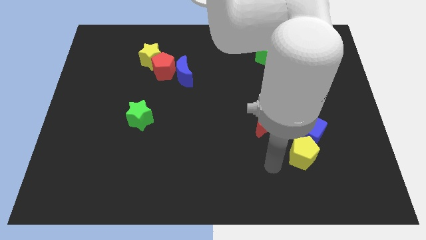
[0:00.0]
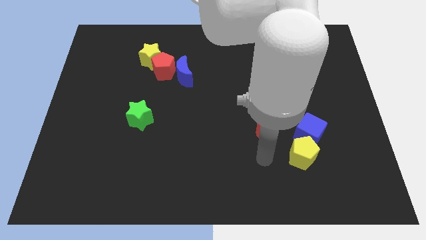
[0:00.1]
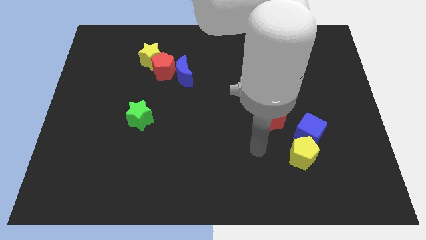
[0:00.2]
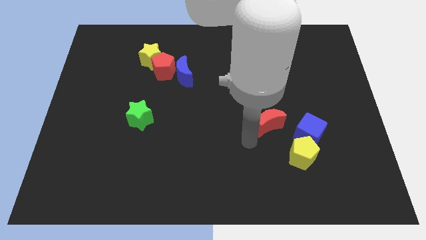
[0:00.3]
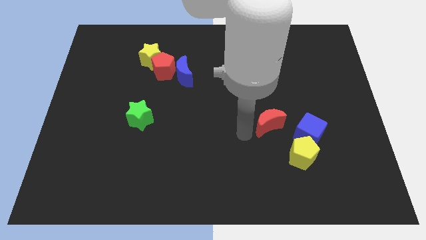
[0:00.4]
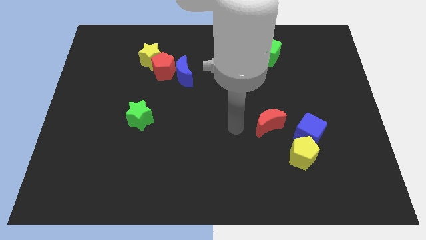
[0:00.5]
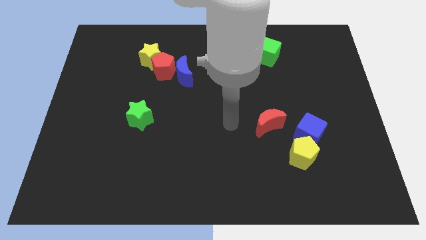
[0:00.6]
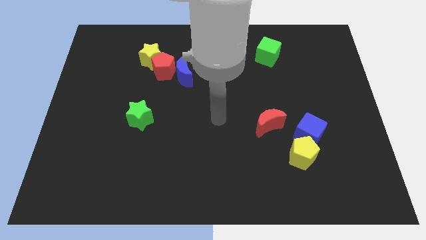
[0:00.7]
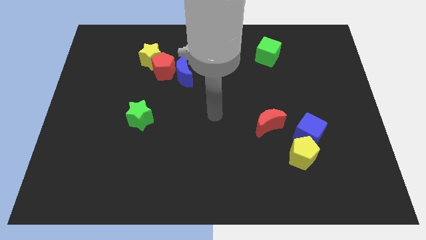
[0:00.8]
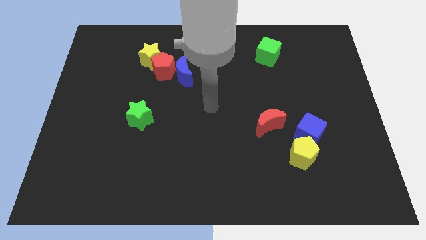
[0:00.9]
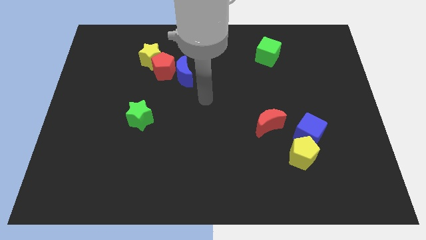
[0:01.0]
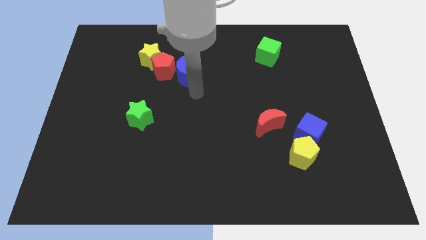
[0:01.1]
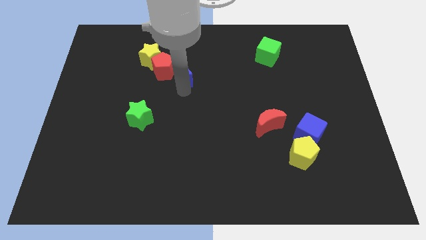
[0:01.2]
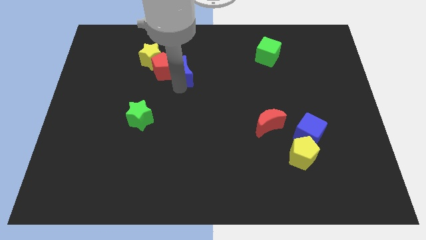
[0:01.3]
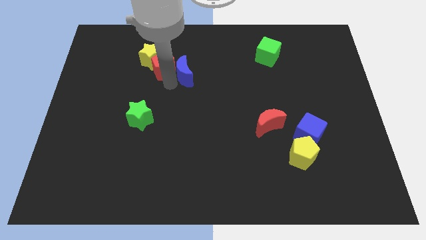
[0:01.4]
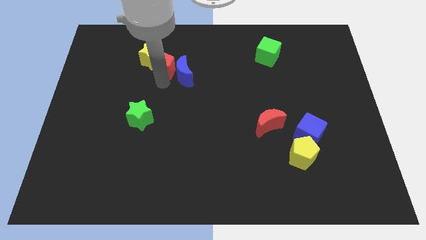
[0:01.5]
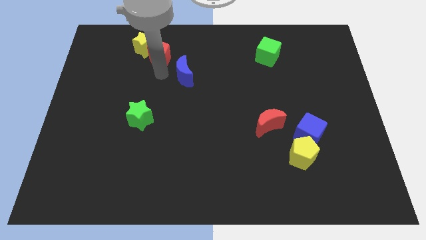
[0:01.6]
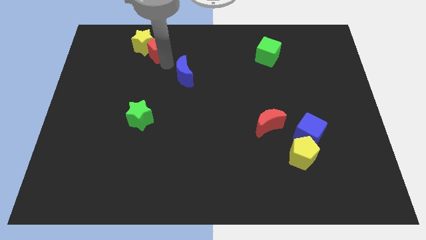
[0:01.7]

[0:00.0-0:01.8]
move the blue moon away from the red pentagon

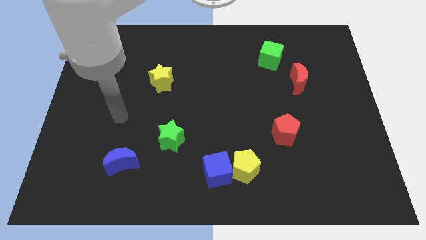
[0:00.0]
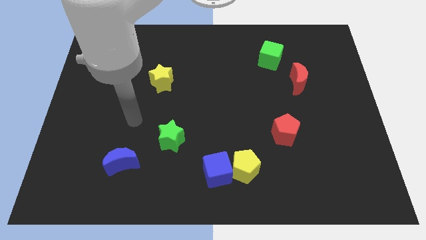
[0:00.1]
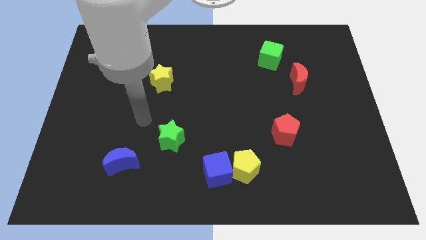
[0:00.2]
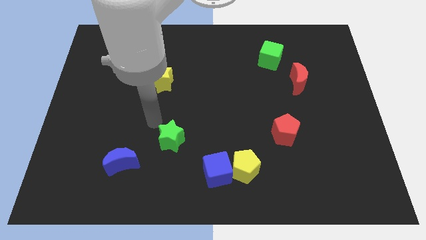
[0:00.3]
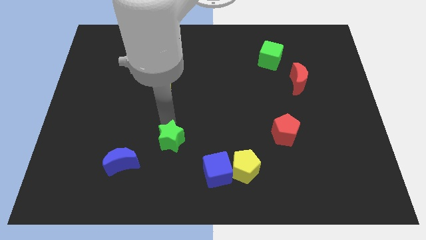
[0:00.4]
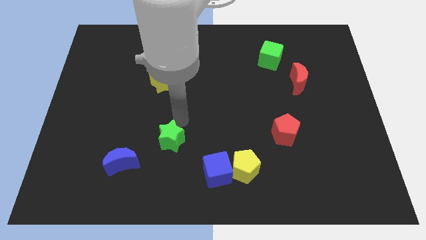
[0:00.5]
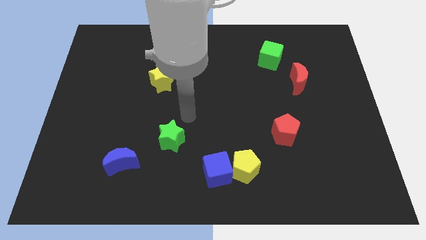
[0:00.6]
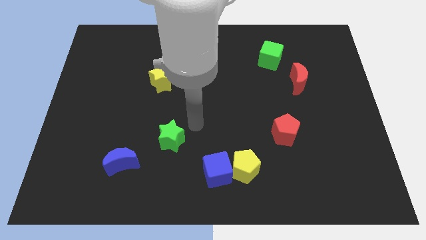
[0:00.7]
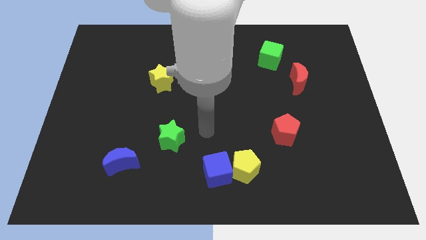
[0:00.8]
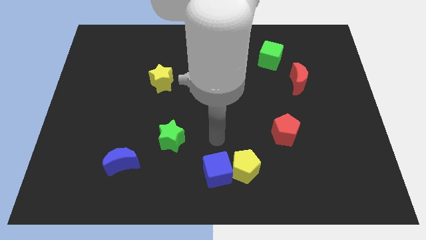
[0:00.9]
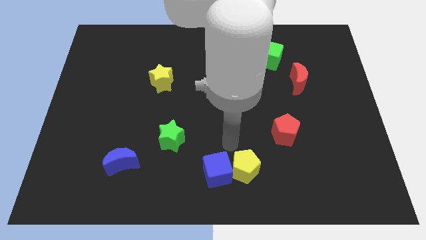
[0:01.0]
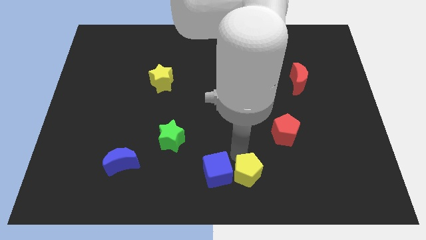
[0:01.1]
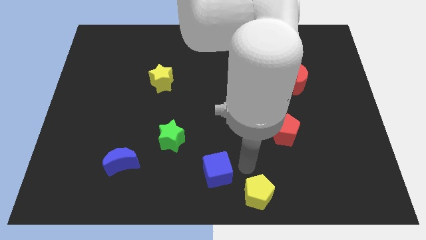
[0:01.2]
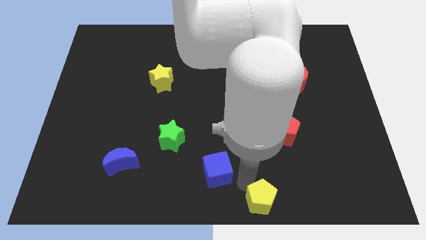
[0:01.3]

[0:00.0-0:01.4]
move the blue cube away from the yellow pentagon

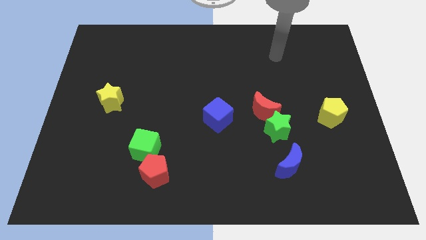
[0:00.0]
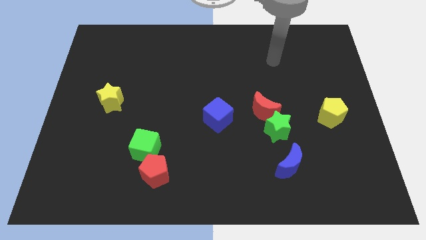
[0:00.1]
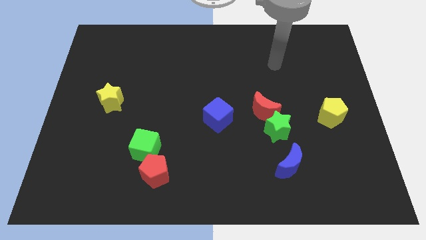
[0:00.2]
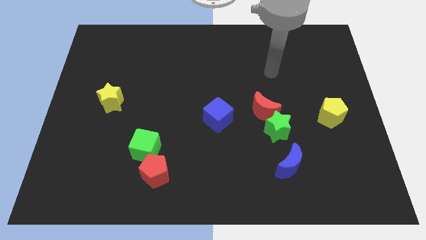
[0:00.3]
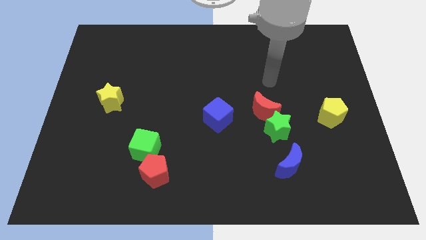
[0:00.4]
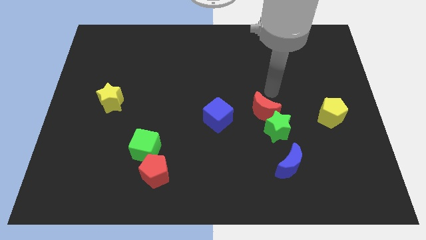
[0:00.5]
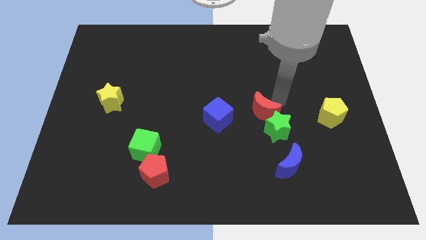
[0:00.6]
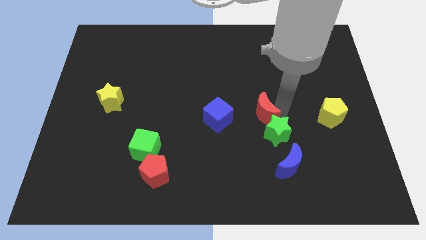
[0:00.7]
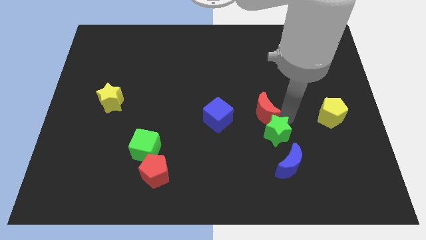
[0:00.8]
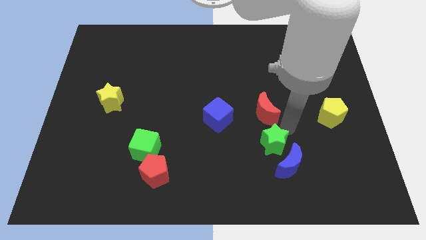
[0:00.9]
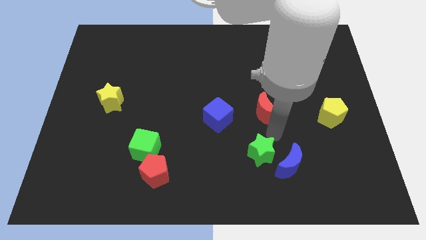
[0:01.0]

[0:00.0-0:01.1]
pull the red moon apart from the green star

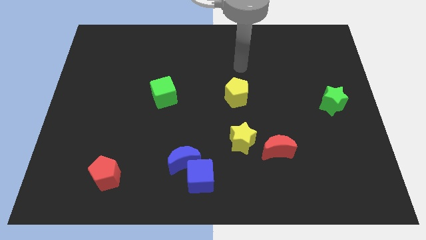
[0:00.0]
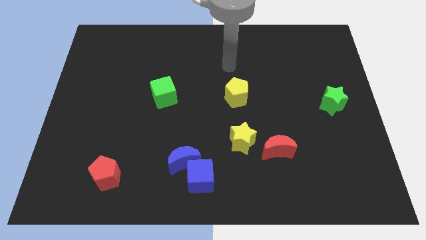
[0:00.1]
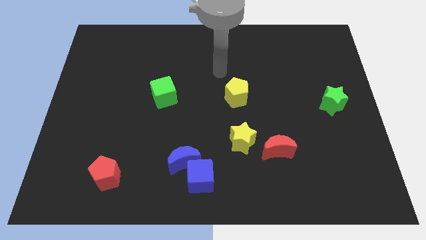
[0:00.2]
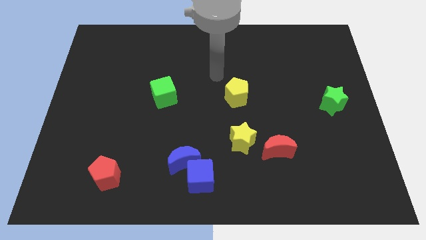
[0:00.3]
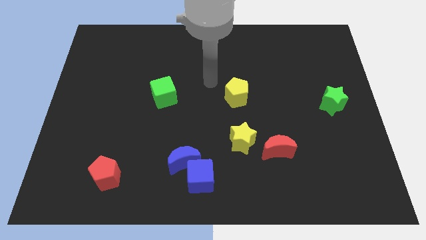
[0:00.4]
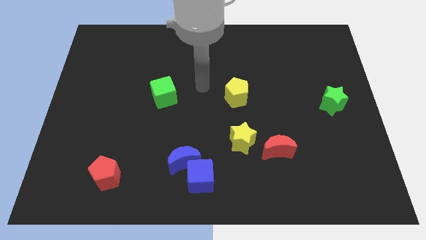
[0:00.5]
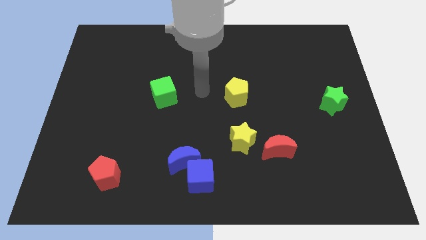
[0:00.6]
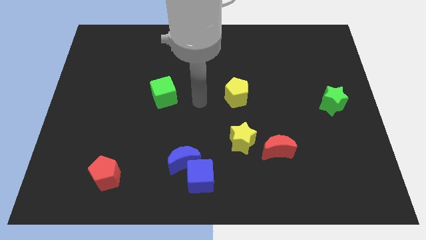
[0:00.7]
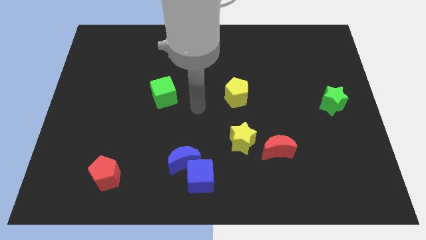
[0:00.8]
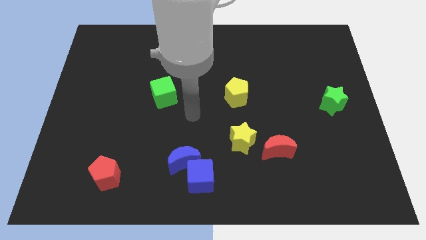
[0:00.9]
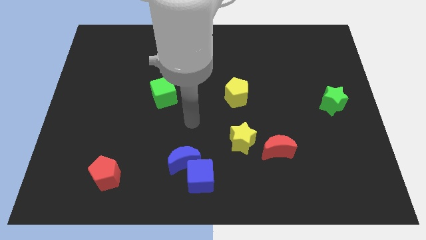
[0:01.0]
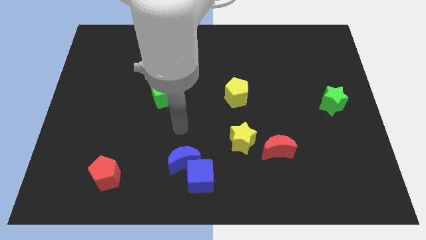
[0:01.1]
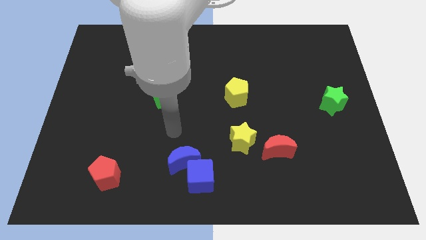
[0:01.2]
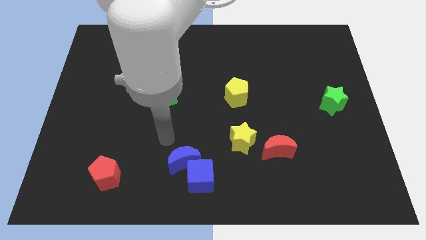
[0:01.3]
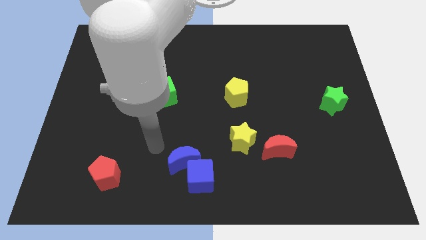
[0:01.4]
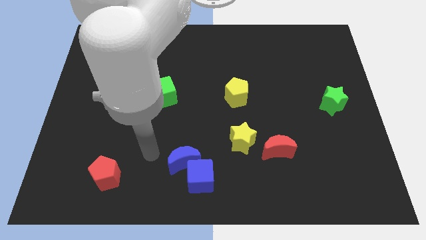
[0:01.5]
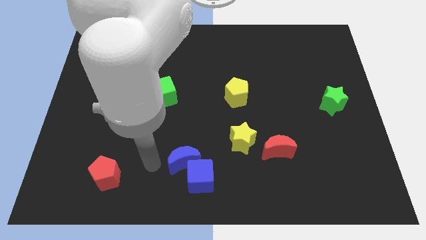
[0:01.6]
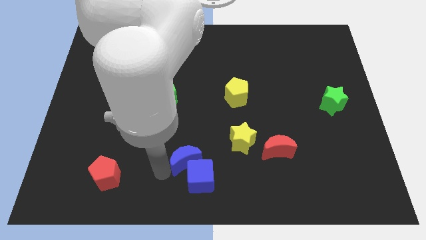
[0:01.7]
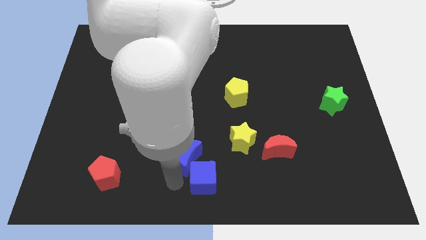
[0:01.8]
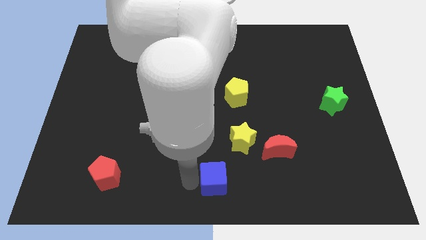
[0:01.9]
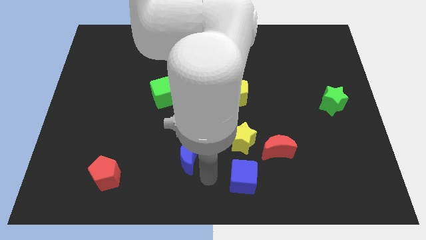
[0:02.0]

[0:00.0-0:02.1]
move the blue moon away from the blue cube

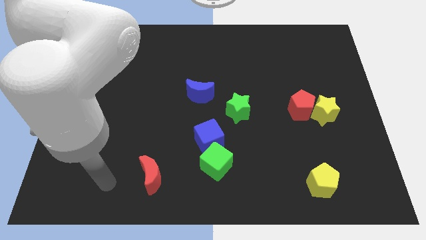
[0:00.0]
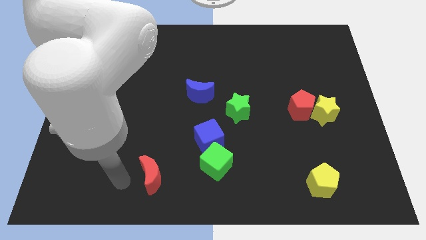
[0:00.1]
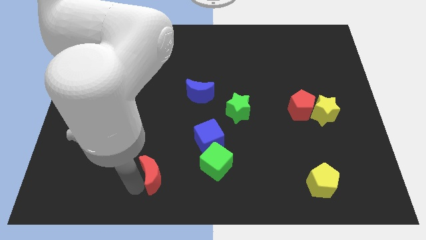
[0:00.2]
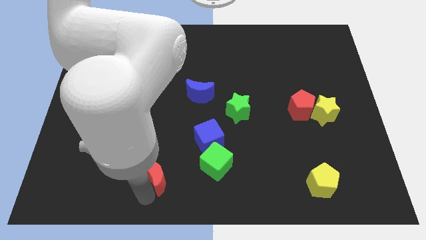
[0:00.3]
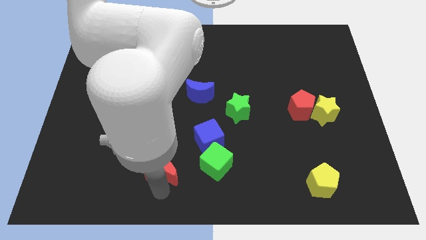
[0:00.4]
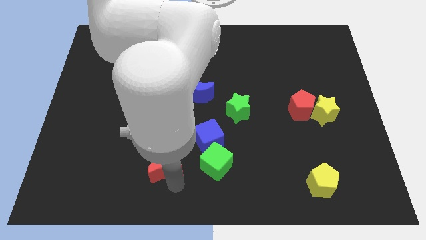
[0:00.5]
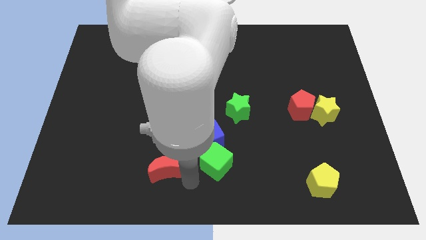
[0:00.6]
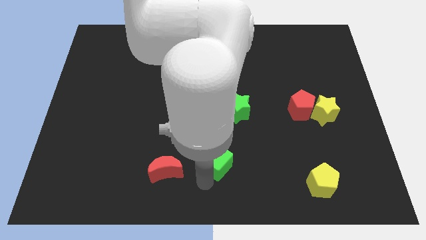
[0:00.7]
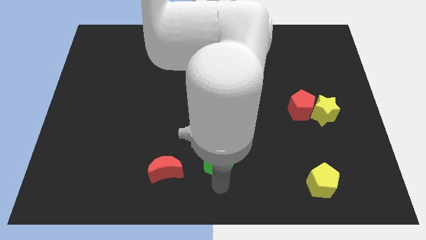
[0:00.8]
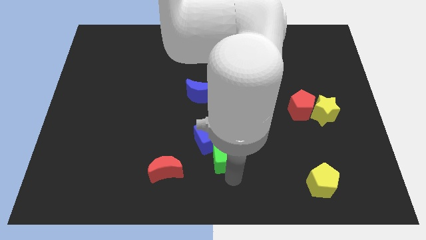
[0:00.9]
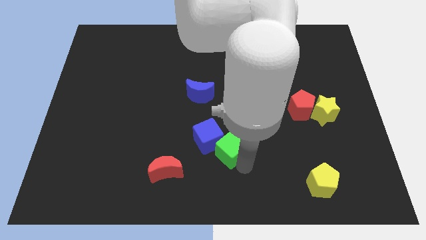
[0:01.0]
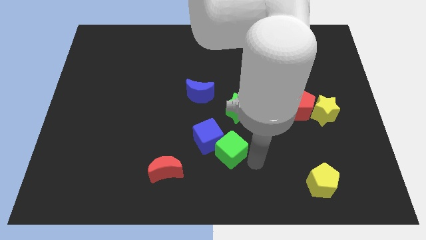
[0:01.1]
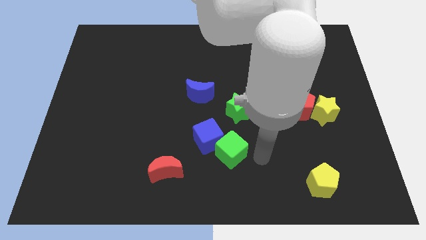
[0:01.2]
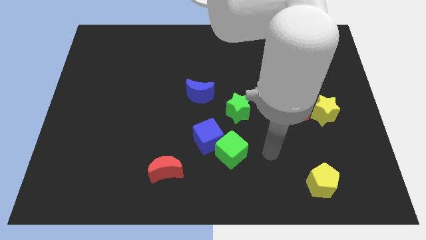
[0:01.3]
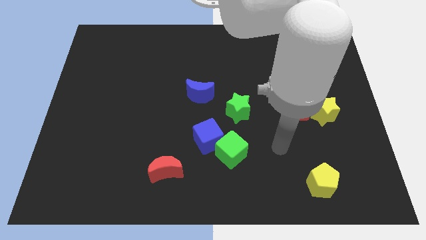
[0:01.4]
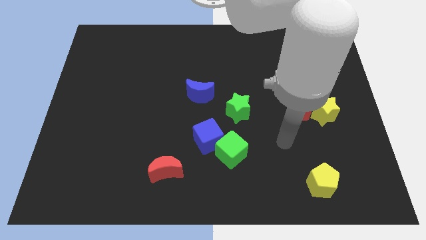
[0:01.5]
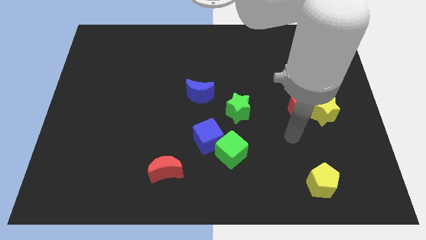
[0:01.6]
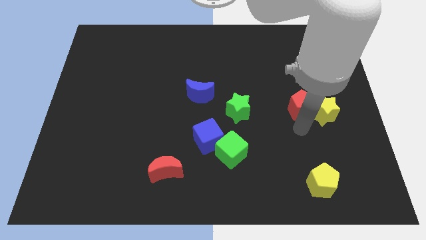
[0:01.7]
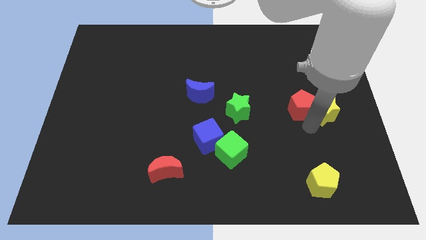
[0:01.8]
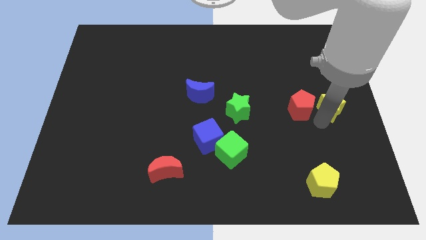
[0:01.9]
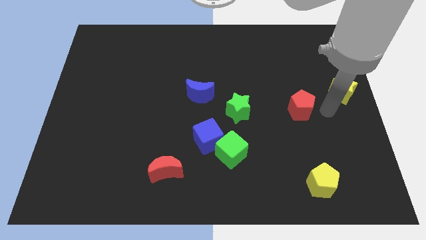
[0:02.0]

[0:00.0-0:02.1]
separate the red pentagon from the yellow star

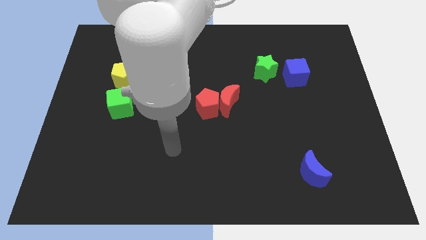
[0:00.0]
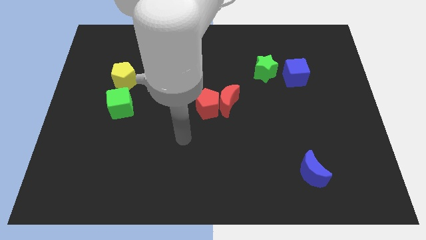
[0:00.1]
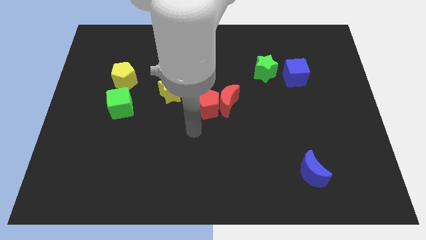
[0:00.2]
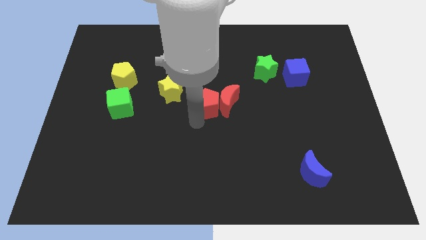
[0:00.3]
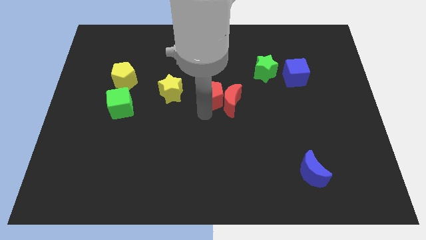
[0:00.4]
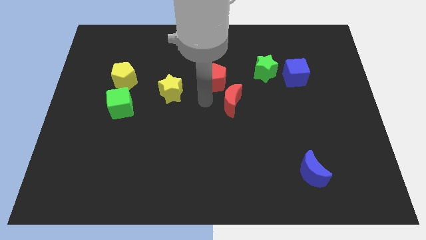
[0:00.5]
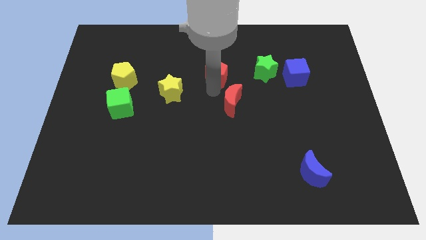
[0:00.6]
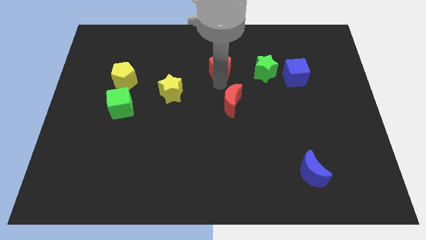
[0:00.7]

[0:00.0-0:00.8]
pull the red moon apart from the red pentagon
